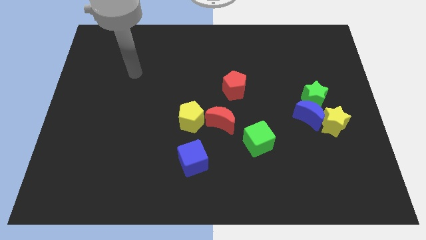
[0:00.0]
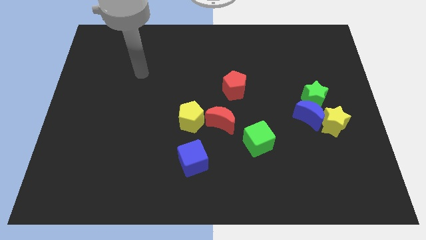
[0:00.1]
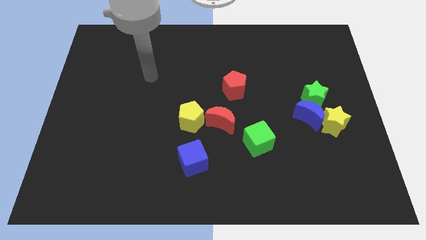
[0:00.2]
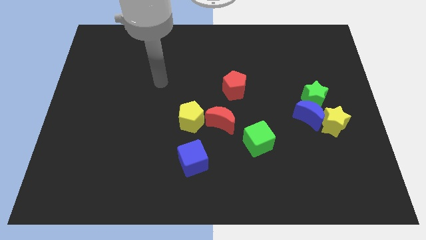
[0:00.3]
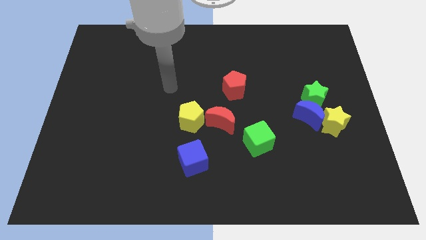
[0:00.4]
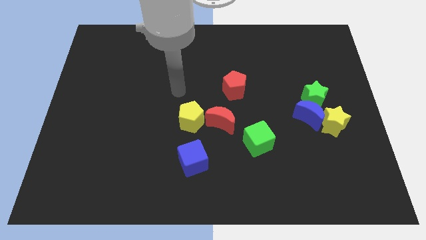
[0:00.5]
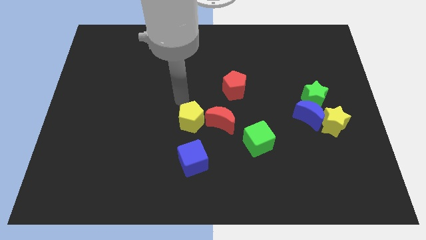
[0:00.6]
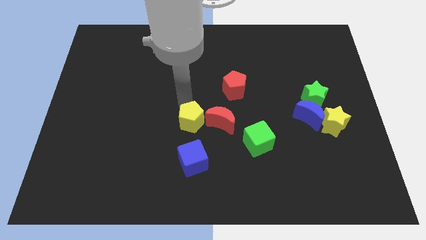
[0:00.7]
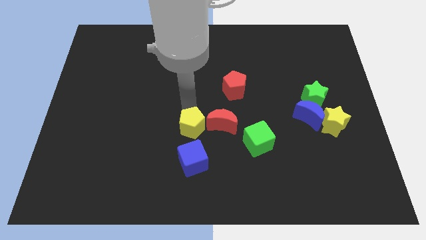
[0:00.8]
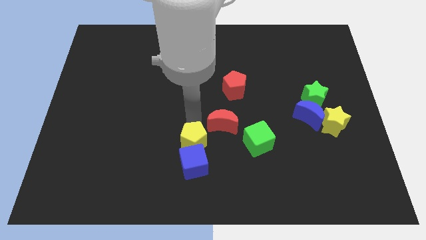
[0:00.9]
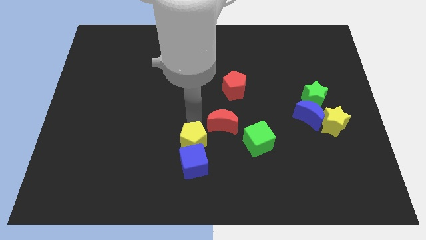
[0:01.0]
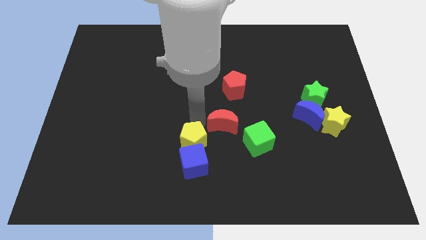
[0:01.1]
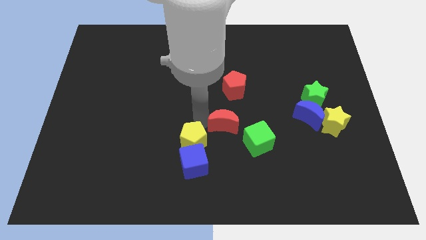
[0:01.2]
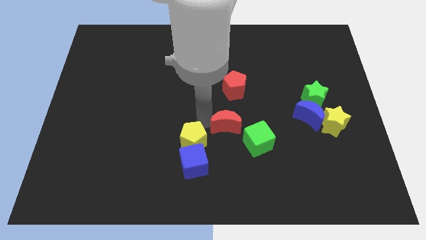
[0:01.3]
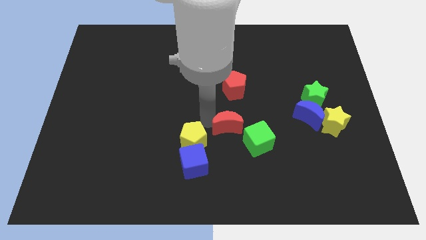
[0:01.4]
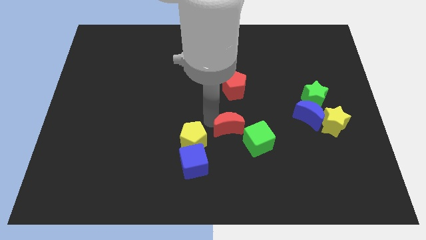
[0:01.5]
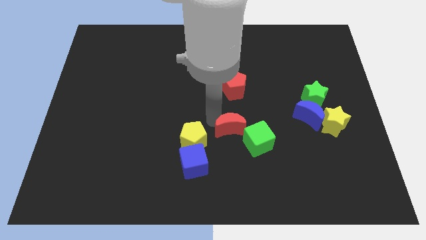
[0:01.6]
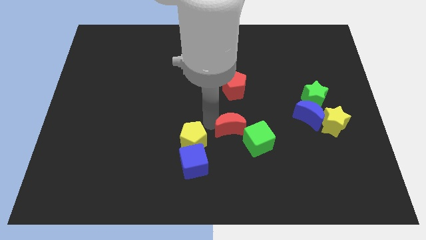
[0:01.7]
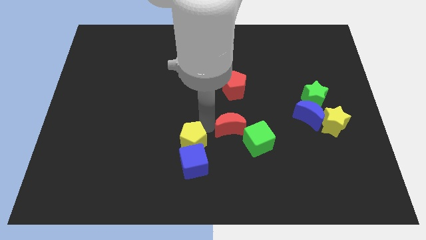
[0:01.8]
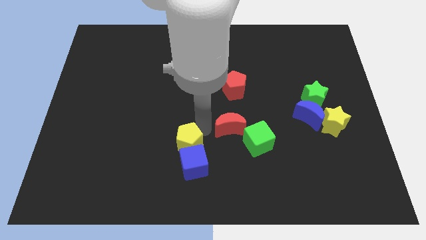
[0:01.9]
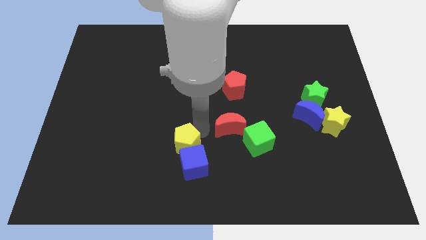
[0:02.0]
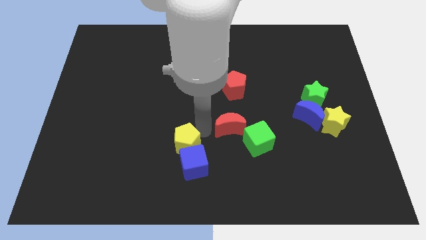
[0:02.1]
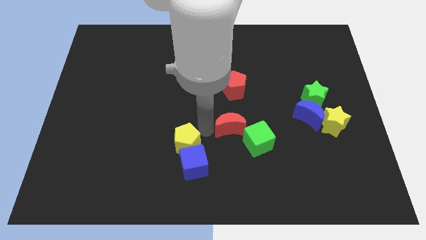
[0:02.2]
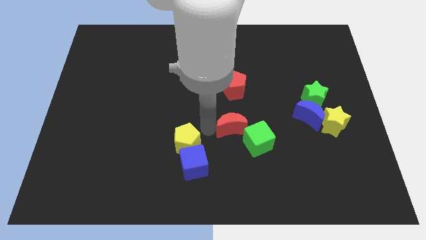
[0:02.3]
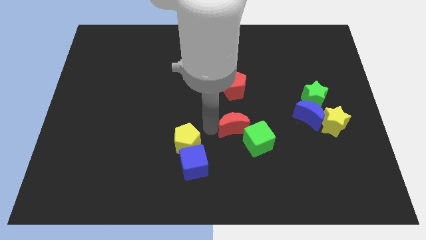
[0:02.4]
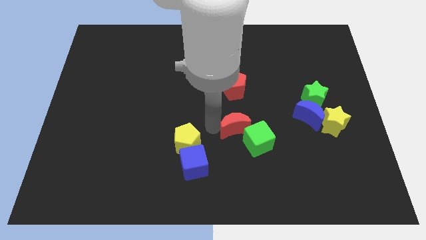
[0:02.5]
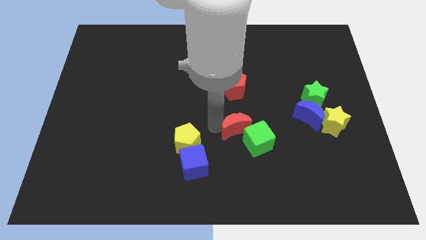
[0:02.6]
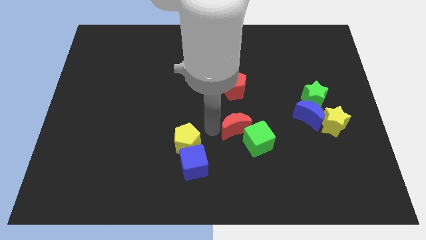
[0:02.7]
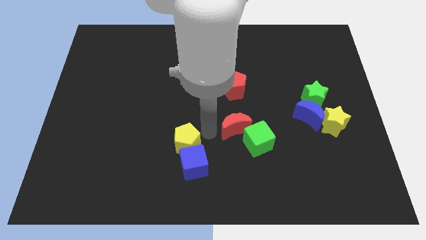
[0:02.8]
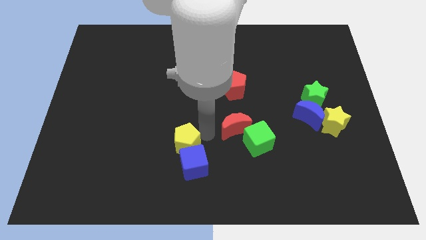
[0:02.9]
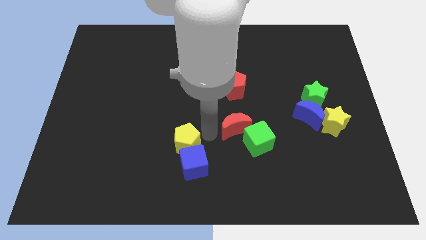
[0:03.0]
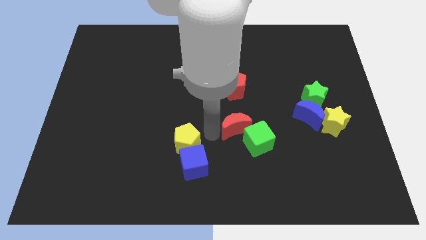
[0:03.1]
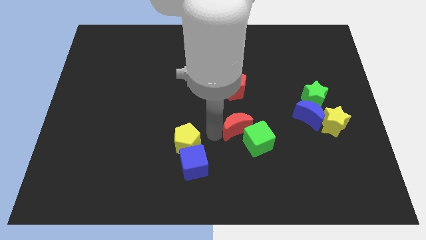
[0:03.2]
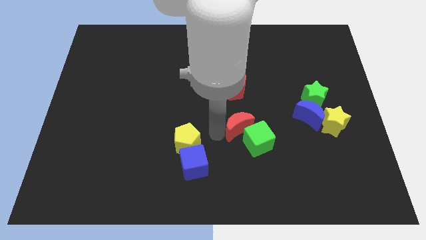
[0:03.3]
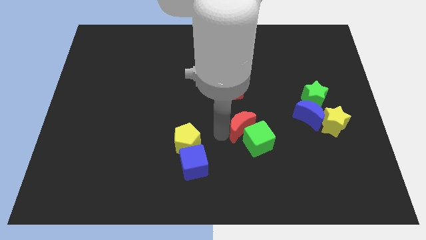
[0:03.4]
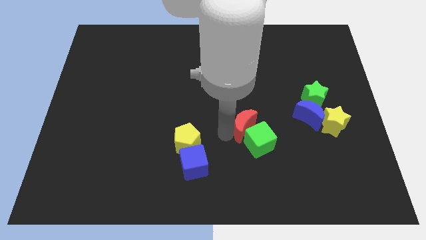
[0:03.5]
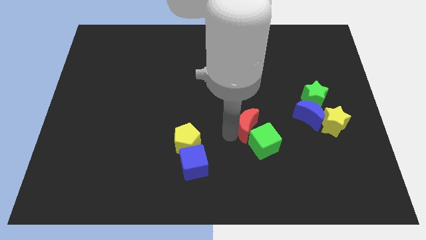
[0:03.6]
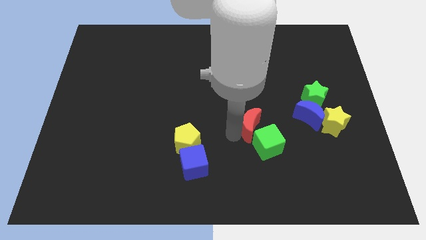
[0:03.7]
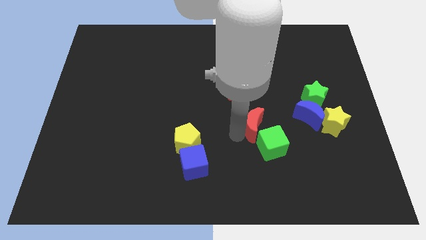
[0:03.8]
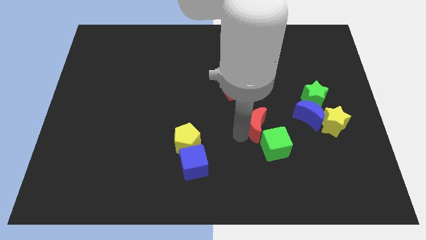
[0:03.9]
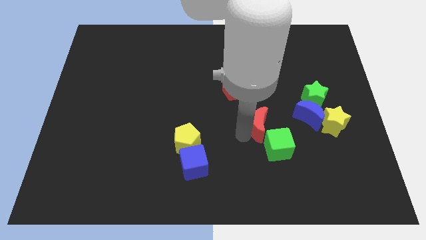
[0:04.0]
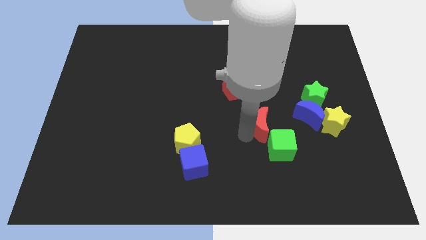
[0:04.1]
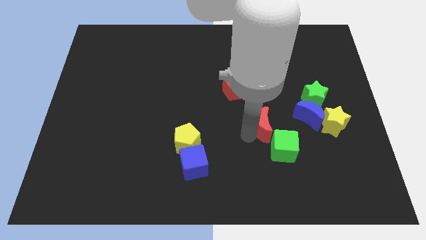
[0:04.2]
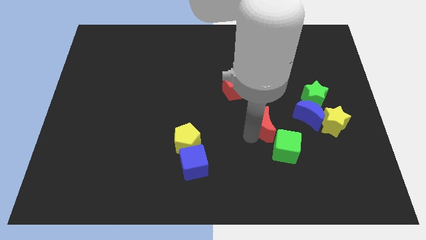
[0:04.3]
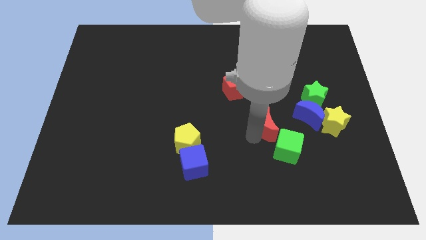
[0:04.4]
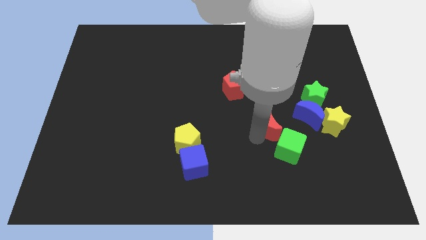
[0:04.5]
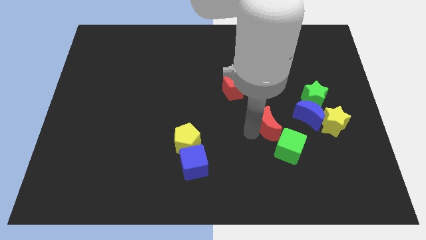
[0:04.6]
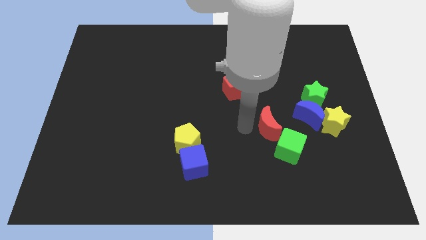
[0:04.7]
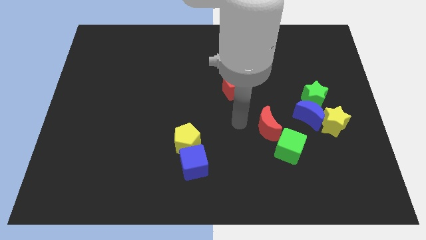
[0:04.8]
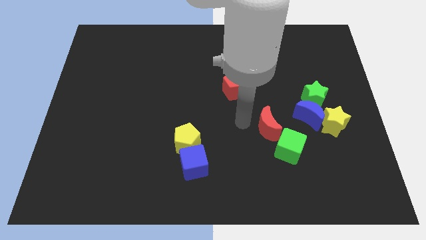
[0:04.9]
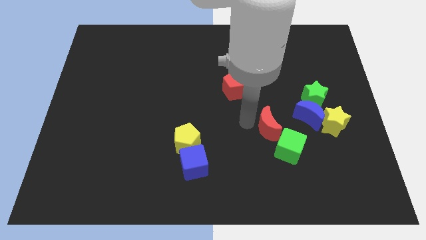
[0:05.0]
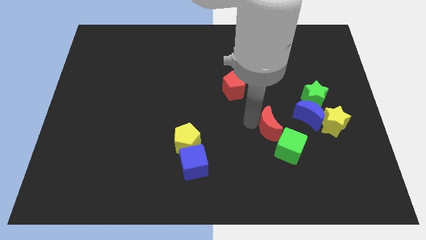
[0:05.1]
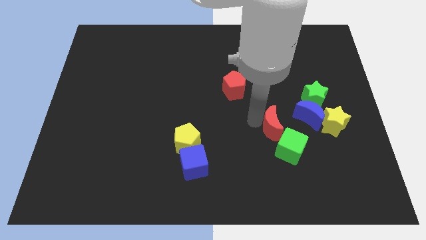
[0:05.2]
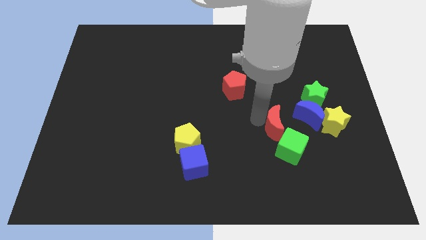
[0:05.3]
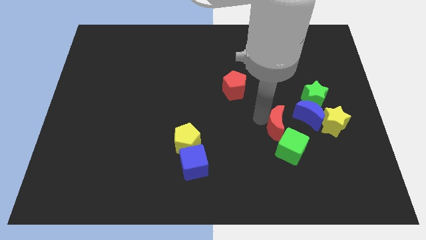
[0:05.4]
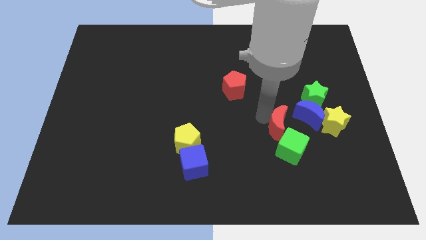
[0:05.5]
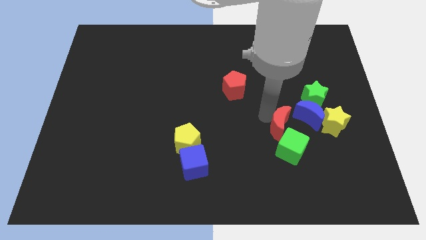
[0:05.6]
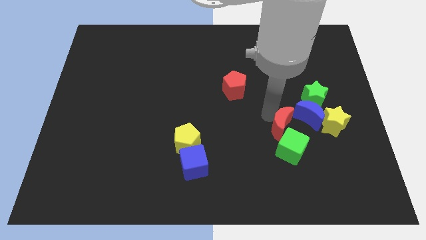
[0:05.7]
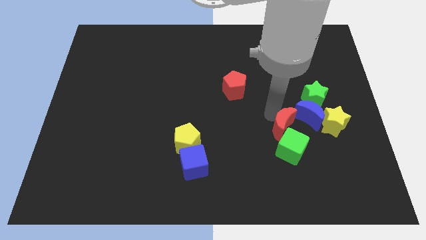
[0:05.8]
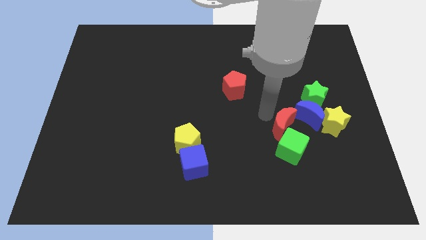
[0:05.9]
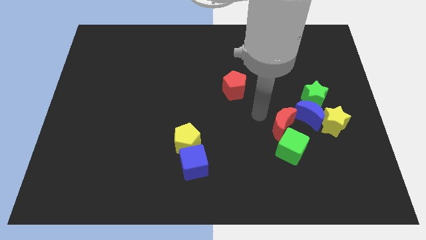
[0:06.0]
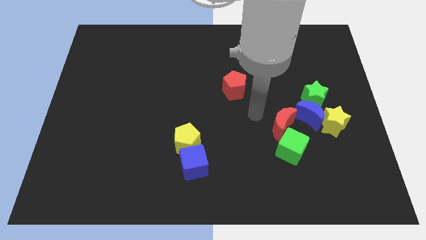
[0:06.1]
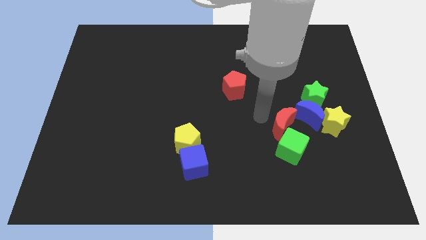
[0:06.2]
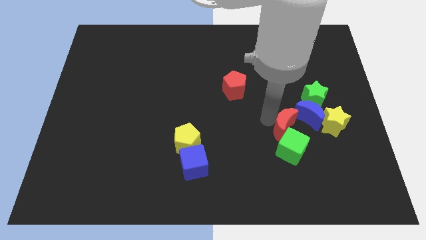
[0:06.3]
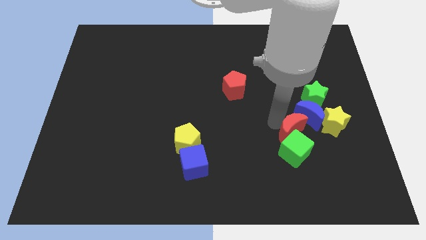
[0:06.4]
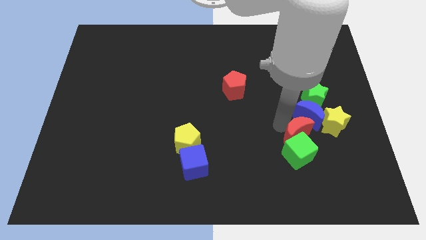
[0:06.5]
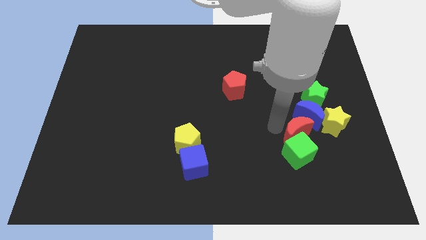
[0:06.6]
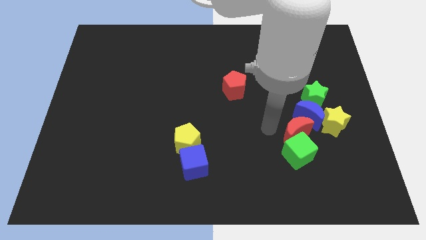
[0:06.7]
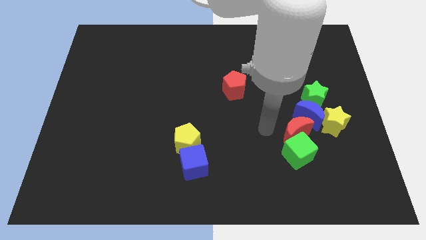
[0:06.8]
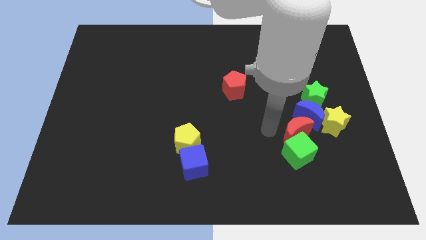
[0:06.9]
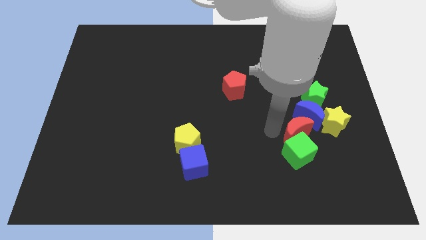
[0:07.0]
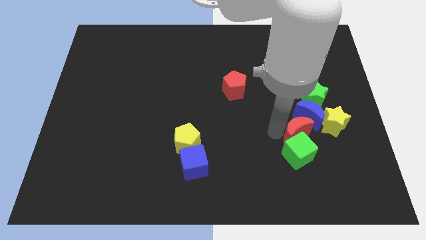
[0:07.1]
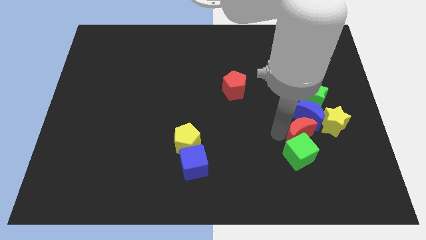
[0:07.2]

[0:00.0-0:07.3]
move the red moon to the bottom side of the green star
